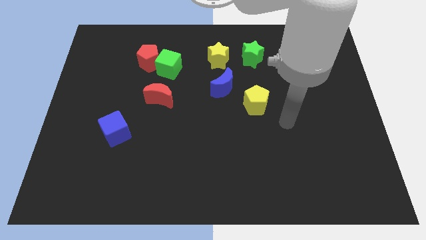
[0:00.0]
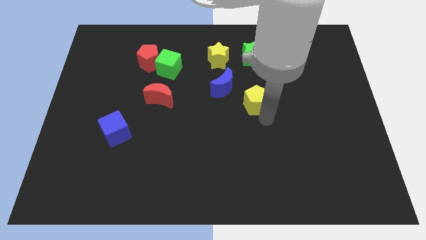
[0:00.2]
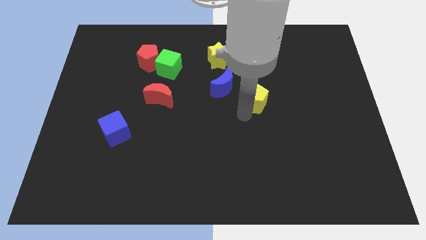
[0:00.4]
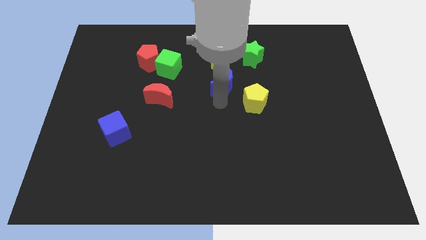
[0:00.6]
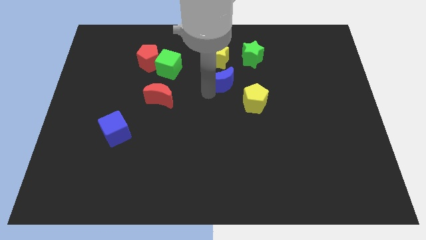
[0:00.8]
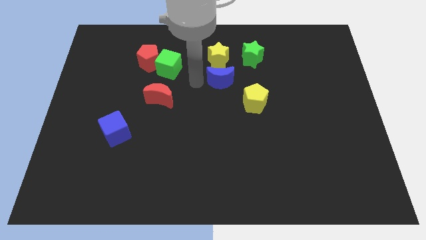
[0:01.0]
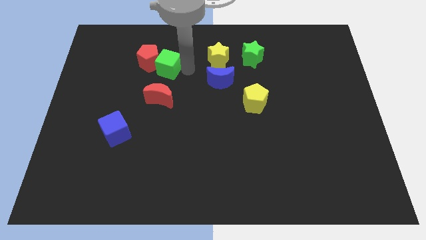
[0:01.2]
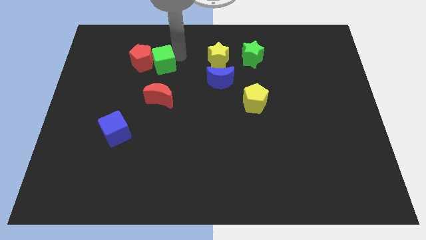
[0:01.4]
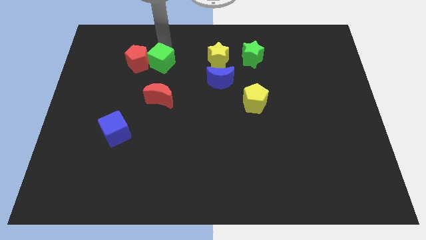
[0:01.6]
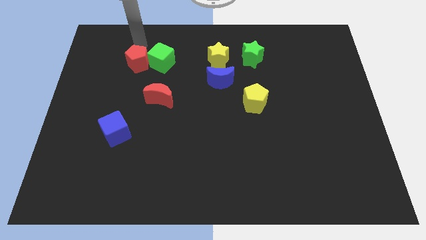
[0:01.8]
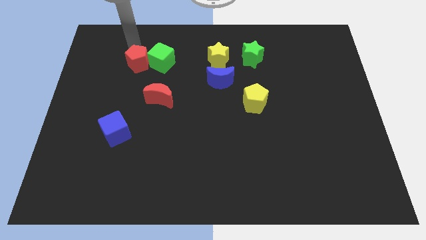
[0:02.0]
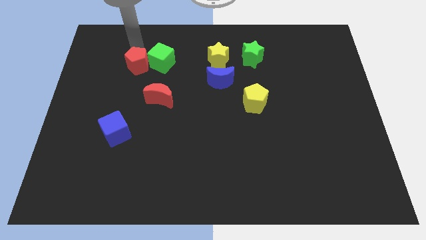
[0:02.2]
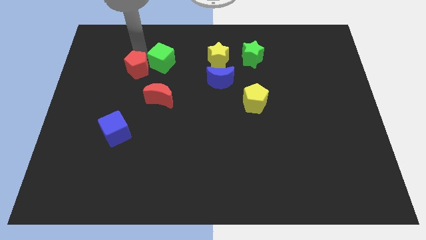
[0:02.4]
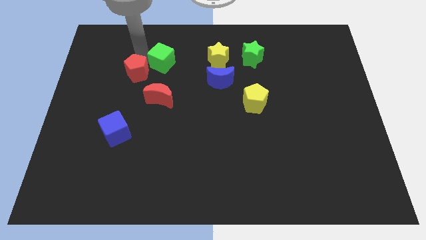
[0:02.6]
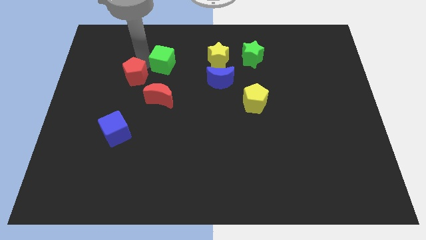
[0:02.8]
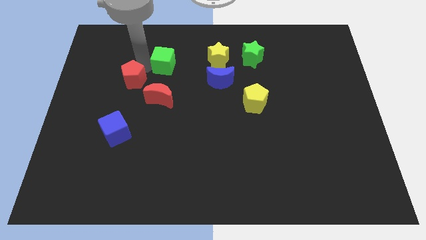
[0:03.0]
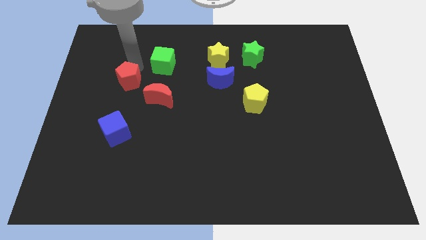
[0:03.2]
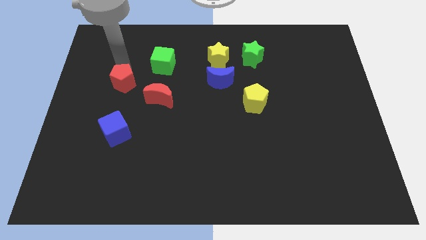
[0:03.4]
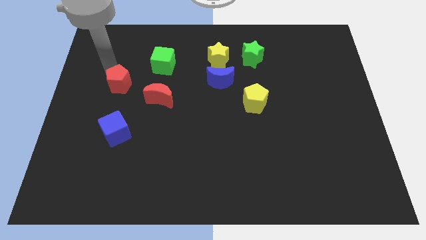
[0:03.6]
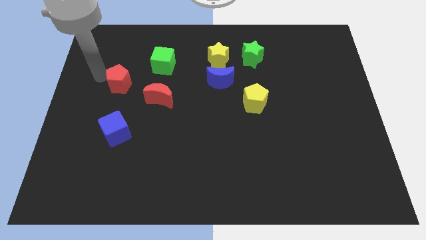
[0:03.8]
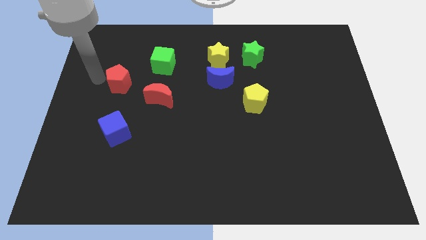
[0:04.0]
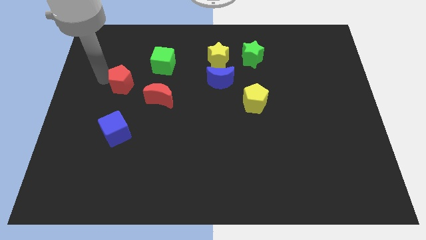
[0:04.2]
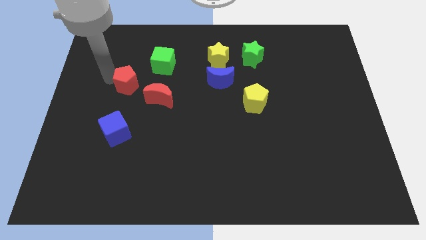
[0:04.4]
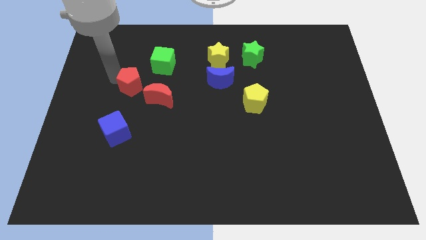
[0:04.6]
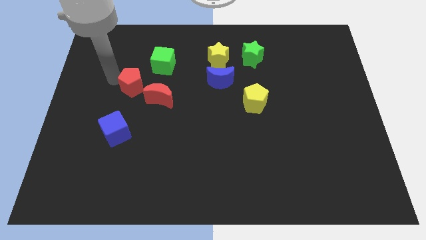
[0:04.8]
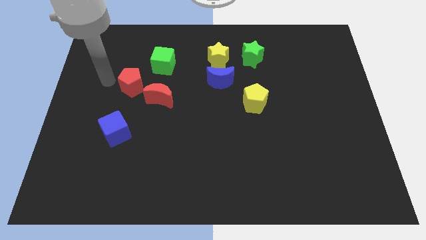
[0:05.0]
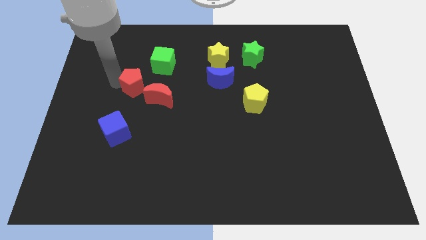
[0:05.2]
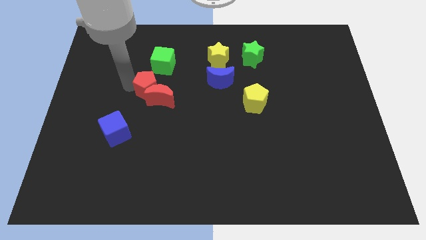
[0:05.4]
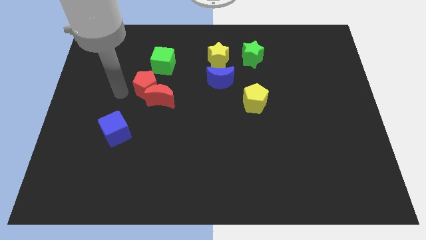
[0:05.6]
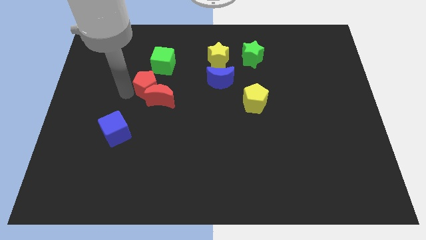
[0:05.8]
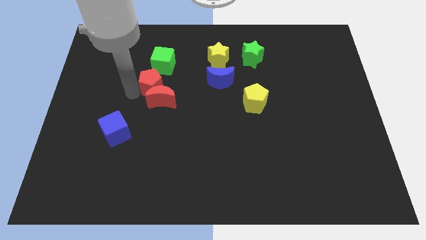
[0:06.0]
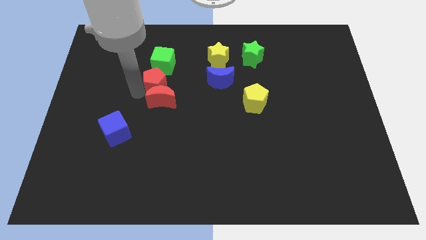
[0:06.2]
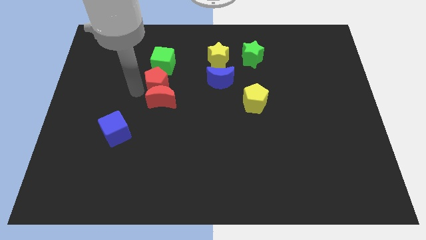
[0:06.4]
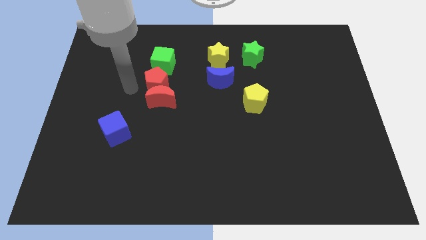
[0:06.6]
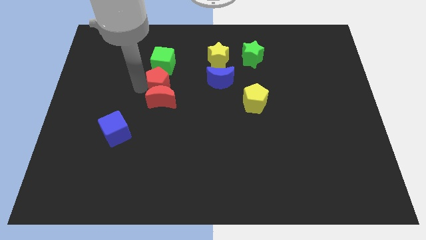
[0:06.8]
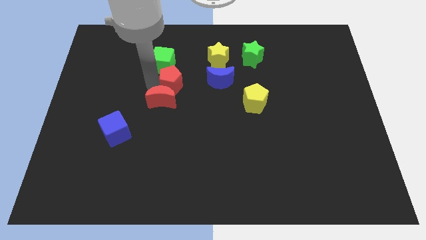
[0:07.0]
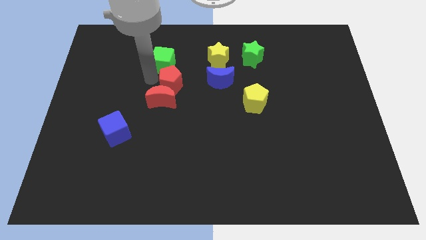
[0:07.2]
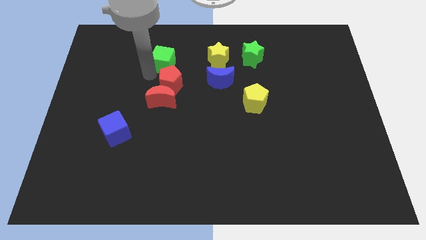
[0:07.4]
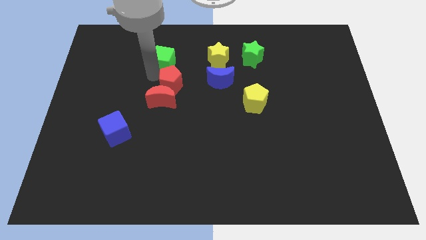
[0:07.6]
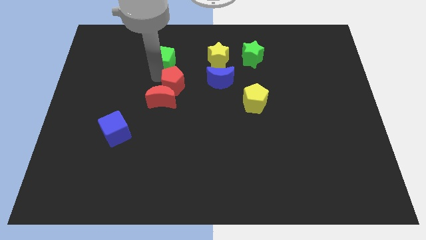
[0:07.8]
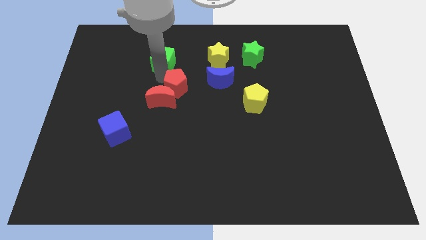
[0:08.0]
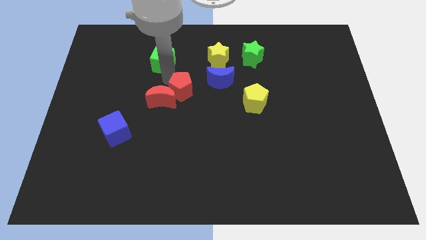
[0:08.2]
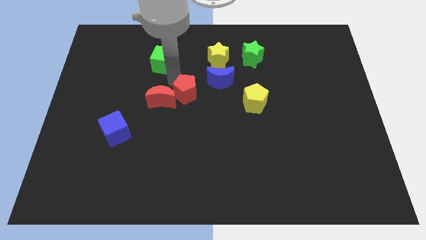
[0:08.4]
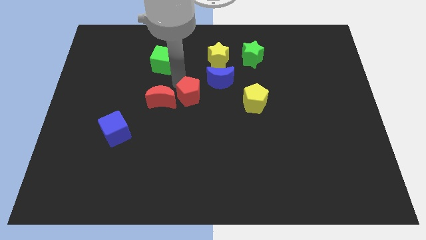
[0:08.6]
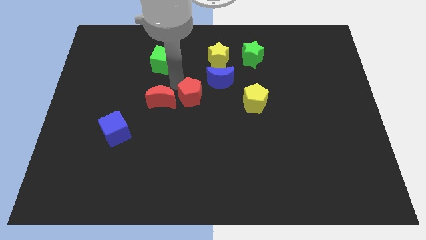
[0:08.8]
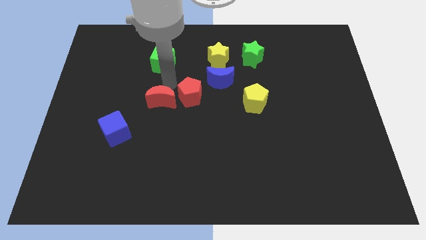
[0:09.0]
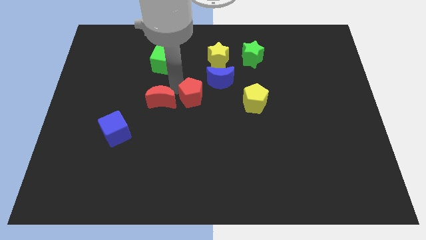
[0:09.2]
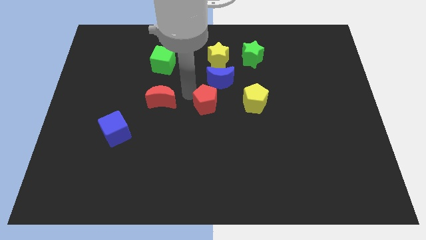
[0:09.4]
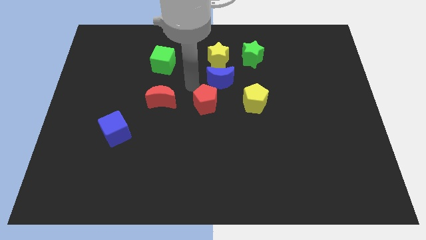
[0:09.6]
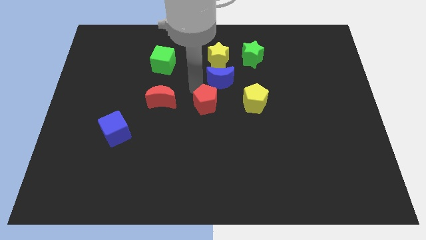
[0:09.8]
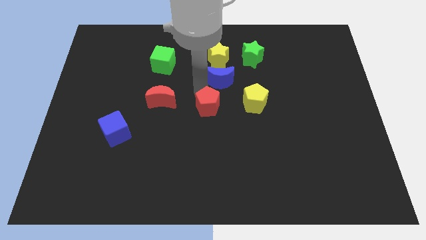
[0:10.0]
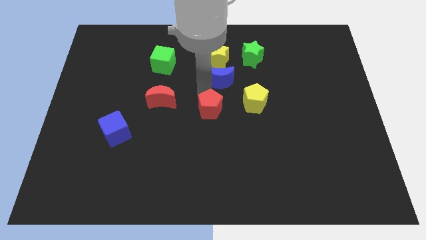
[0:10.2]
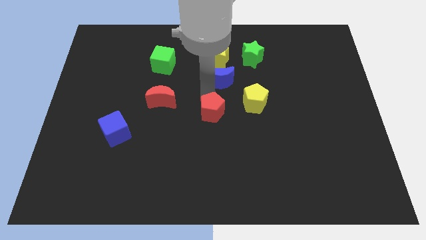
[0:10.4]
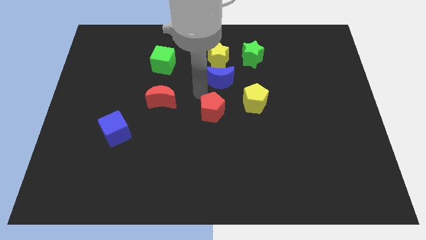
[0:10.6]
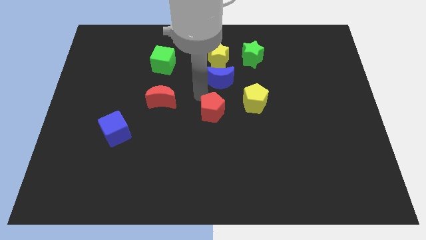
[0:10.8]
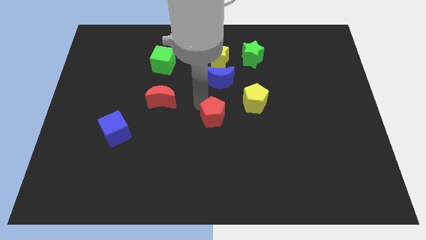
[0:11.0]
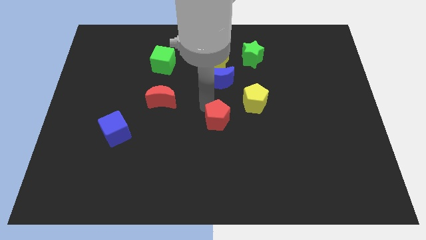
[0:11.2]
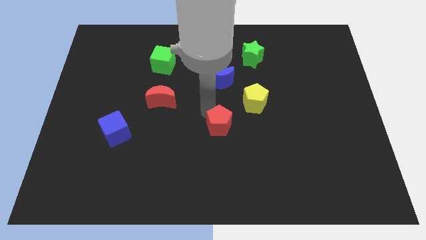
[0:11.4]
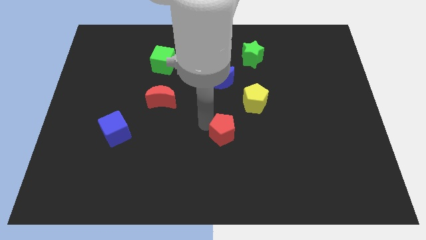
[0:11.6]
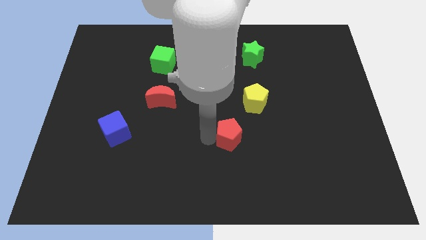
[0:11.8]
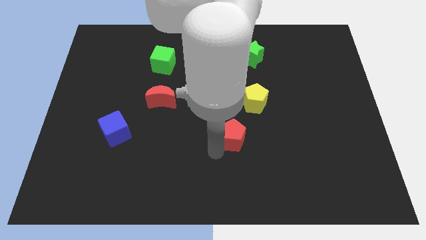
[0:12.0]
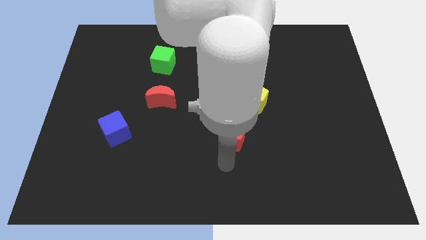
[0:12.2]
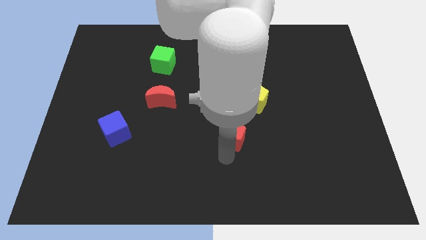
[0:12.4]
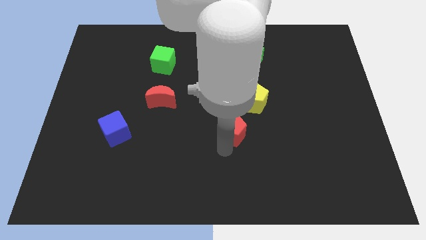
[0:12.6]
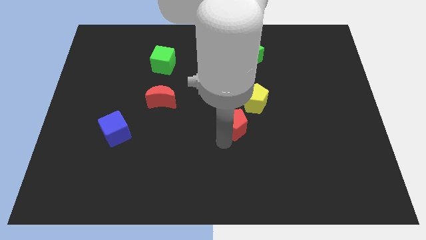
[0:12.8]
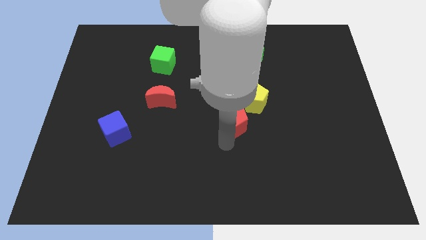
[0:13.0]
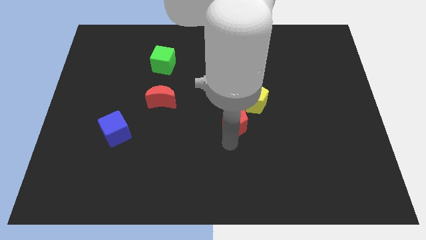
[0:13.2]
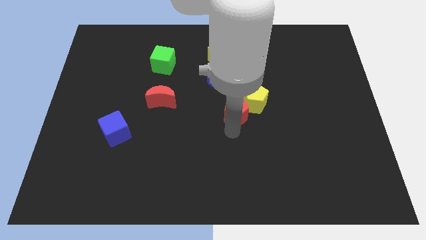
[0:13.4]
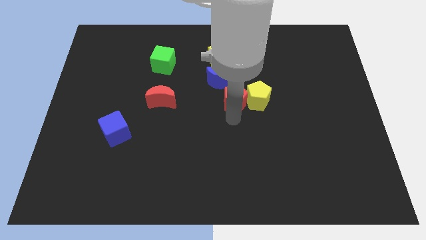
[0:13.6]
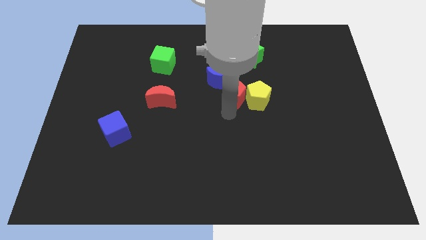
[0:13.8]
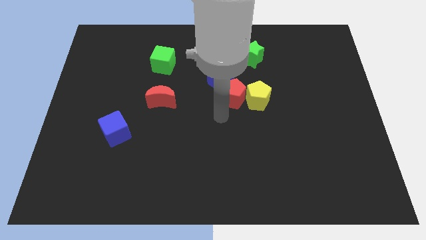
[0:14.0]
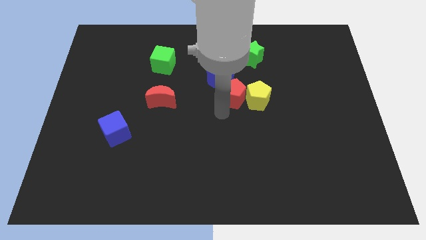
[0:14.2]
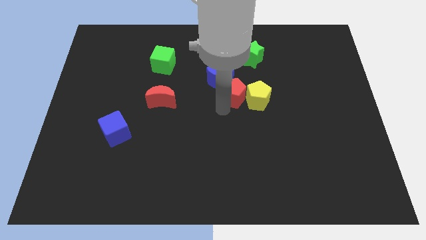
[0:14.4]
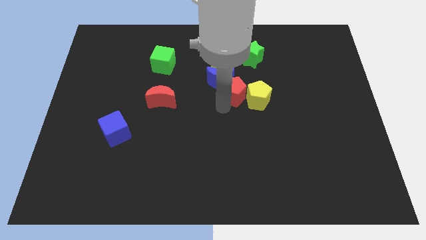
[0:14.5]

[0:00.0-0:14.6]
move the red pentagon right of the blue moon
